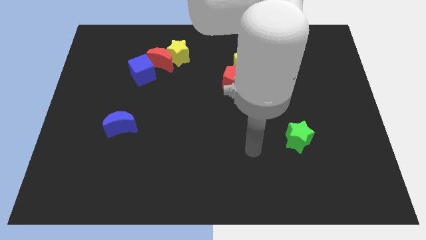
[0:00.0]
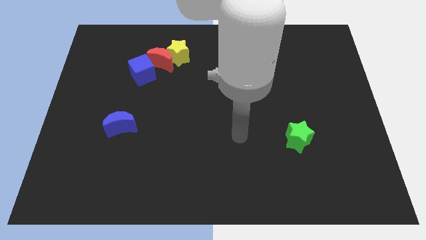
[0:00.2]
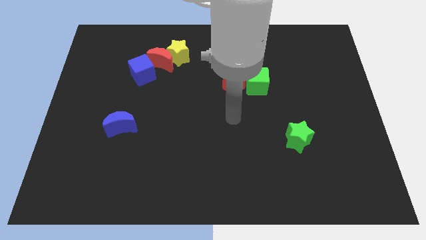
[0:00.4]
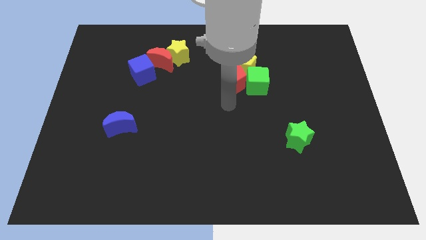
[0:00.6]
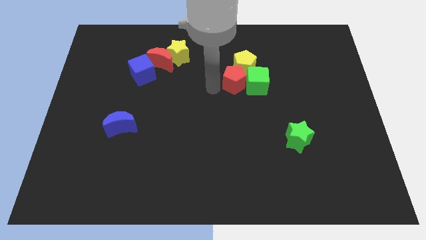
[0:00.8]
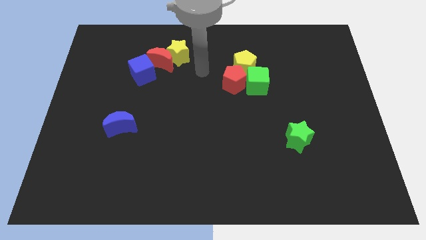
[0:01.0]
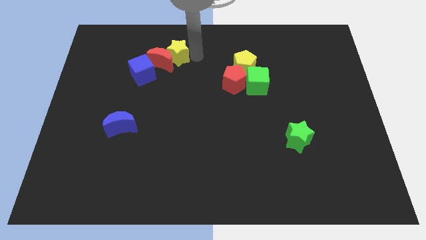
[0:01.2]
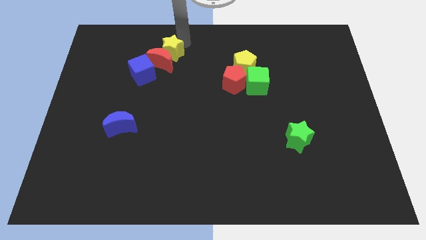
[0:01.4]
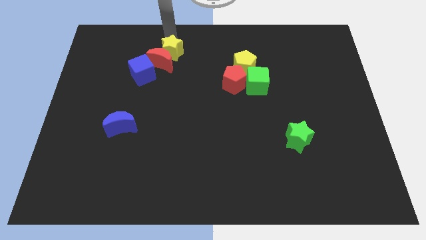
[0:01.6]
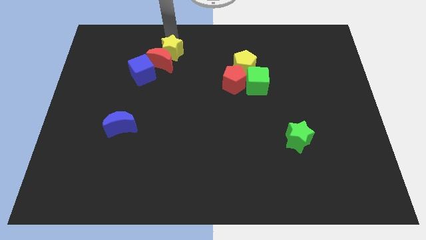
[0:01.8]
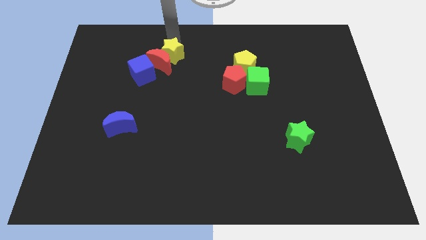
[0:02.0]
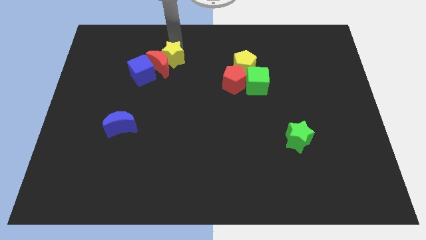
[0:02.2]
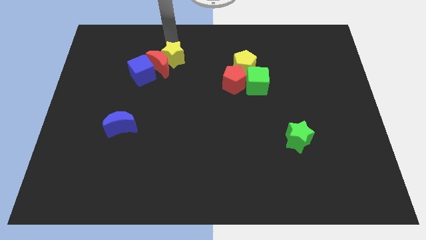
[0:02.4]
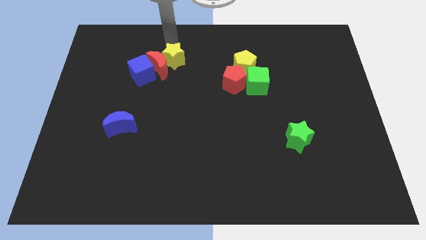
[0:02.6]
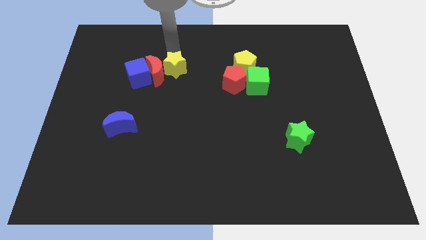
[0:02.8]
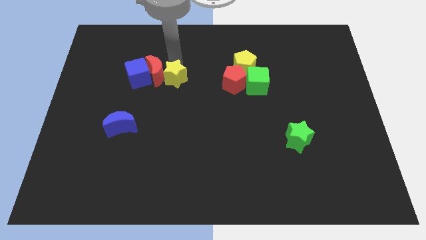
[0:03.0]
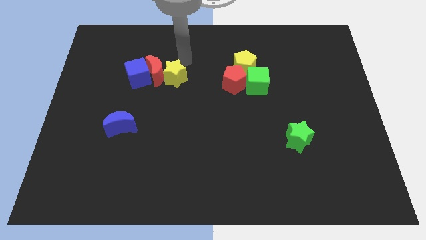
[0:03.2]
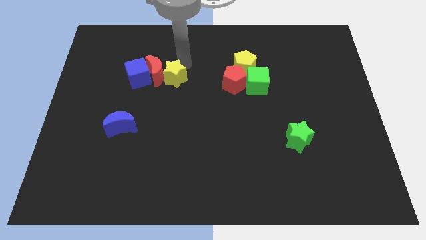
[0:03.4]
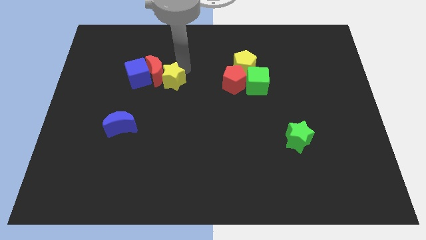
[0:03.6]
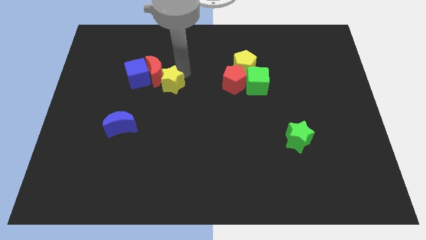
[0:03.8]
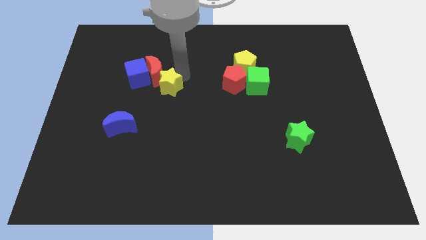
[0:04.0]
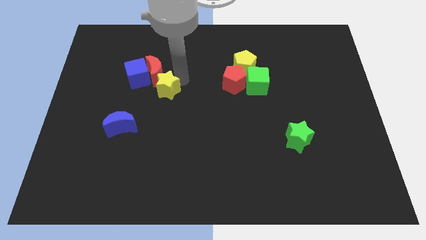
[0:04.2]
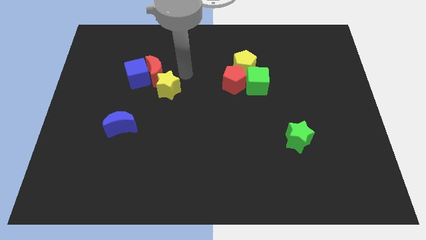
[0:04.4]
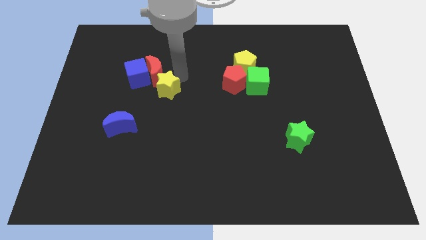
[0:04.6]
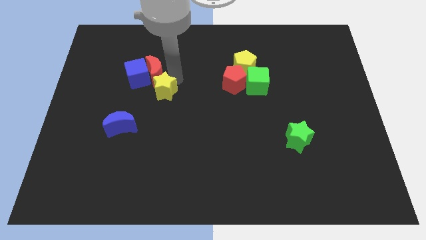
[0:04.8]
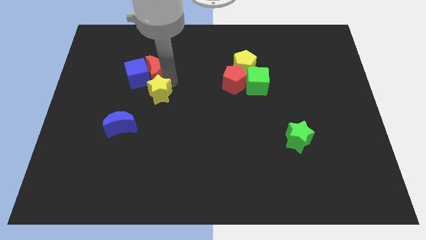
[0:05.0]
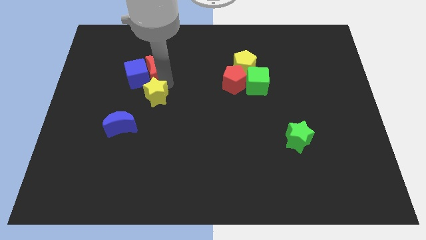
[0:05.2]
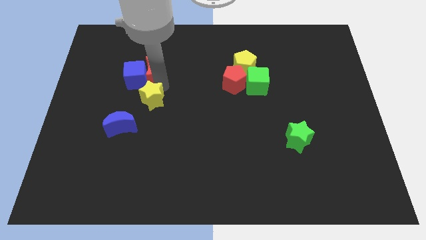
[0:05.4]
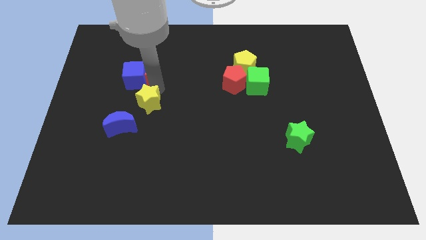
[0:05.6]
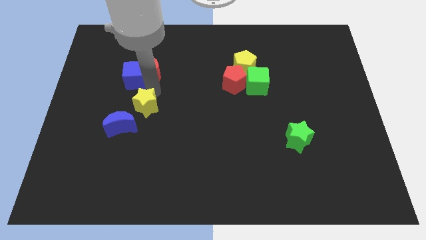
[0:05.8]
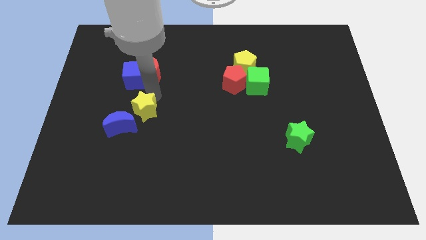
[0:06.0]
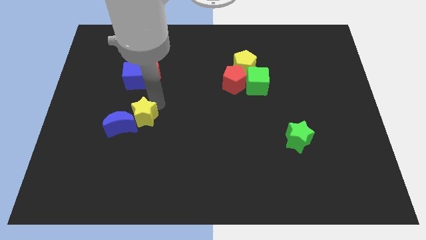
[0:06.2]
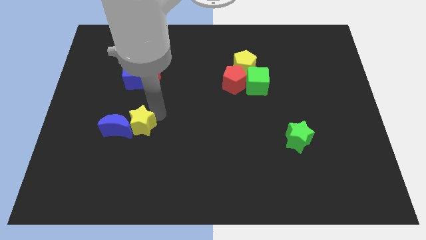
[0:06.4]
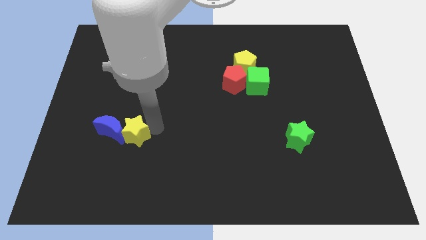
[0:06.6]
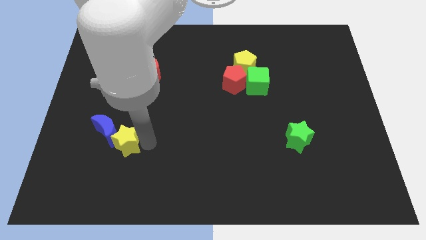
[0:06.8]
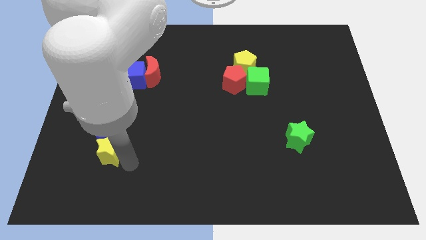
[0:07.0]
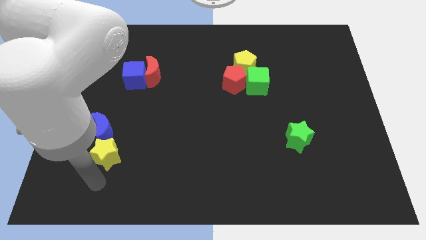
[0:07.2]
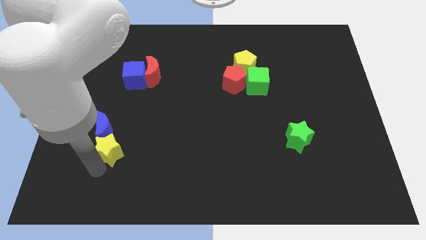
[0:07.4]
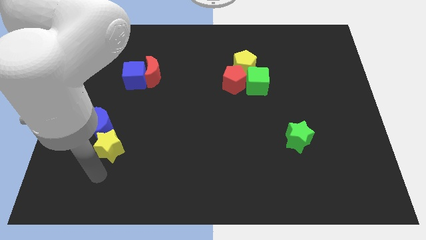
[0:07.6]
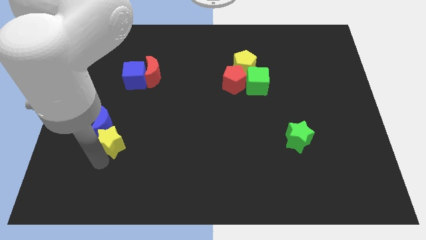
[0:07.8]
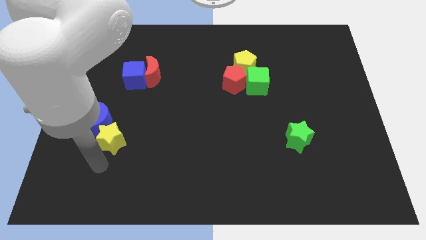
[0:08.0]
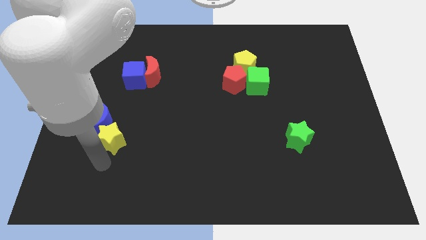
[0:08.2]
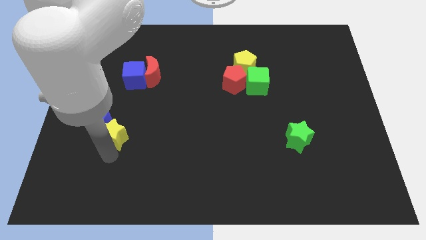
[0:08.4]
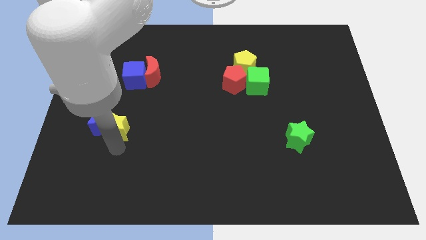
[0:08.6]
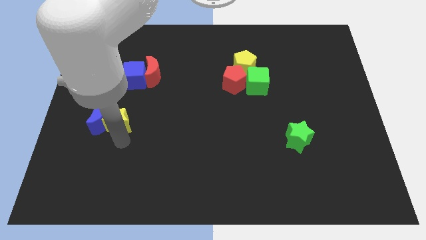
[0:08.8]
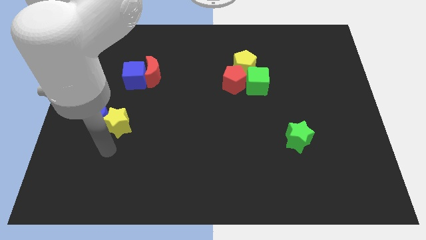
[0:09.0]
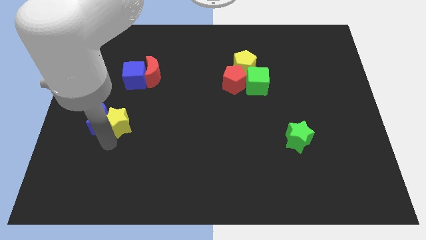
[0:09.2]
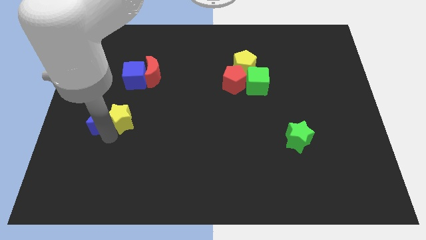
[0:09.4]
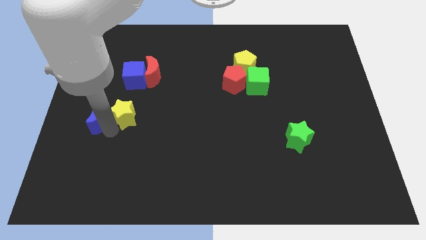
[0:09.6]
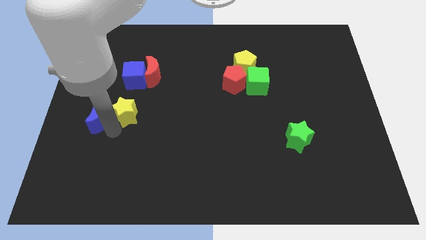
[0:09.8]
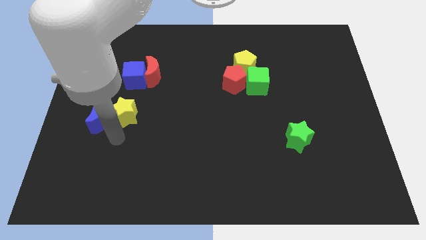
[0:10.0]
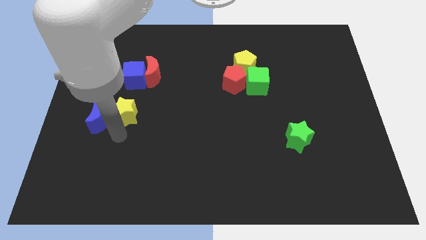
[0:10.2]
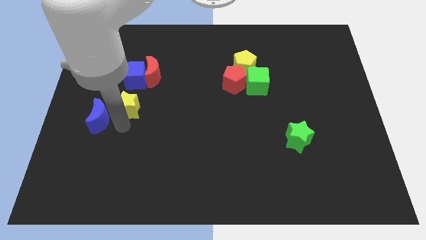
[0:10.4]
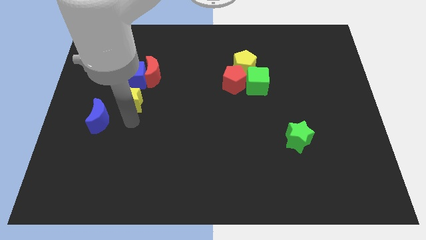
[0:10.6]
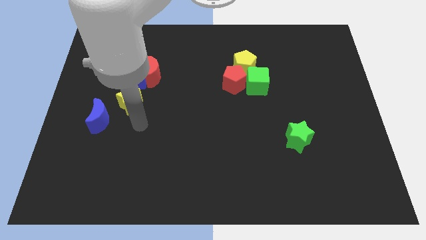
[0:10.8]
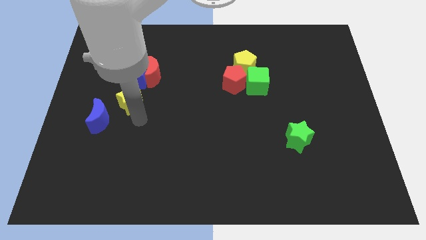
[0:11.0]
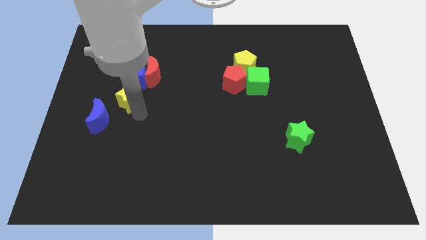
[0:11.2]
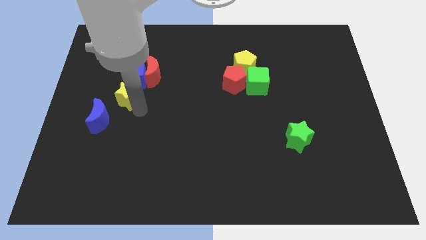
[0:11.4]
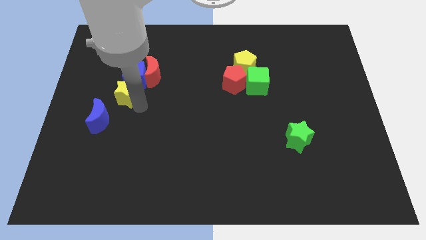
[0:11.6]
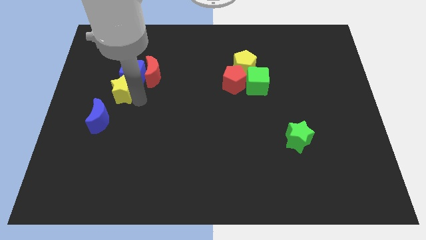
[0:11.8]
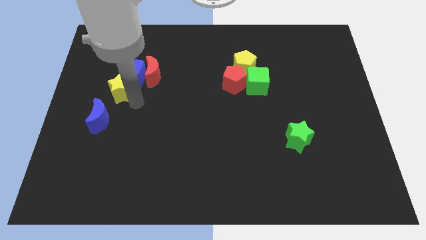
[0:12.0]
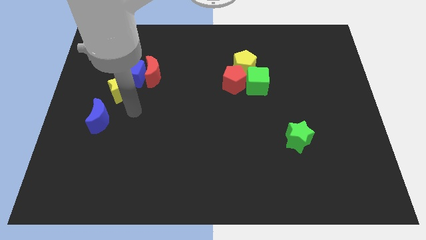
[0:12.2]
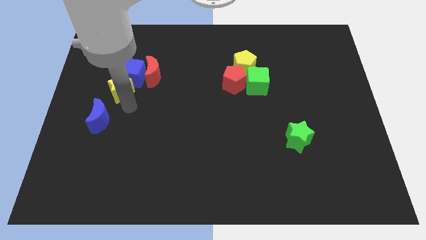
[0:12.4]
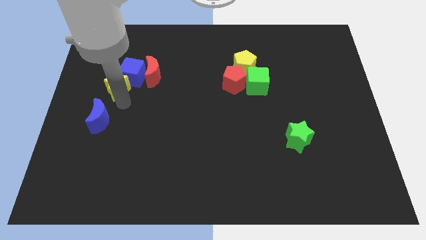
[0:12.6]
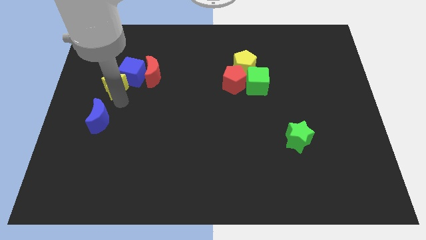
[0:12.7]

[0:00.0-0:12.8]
slide the yellow star slightly to the left

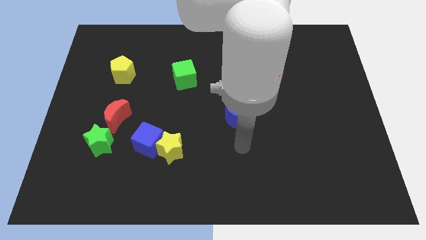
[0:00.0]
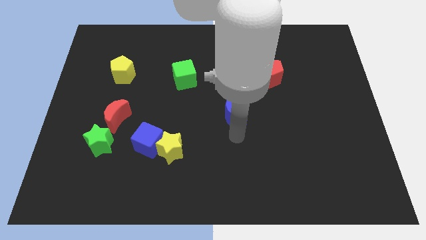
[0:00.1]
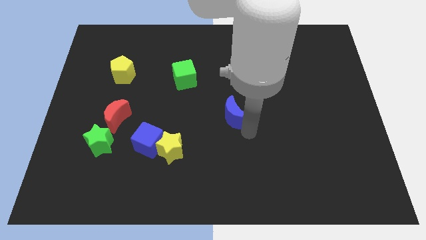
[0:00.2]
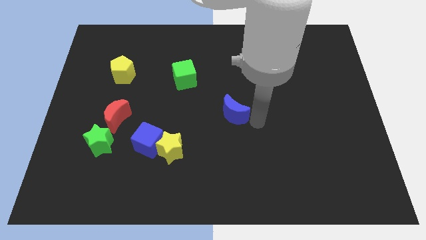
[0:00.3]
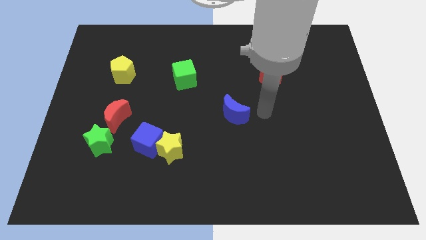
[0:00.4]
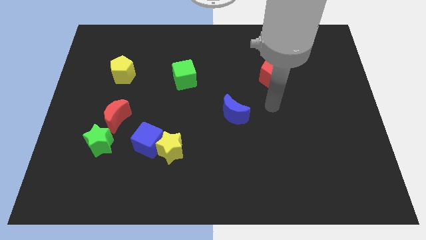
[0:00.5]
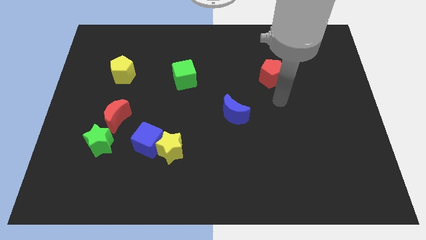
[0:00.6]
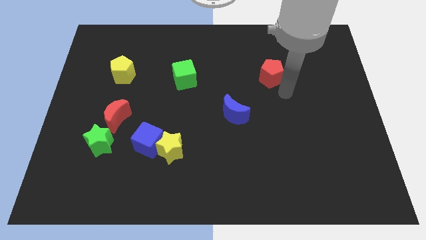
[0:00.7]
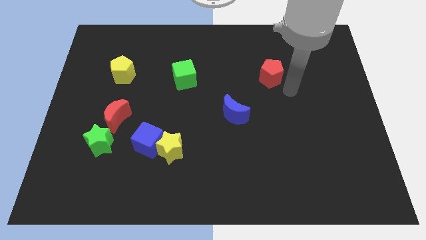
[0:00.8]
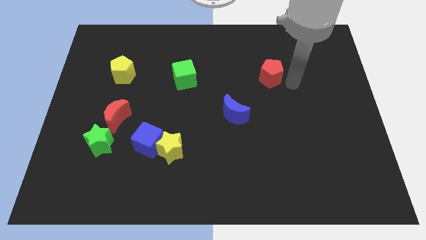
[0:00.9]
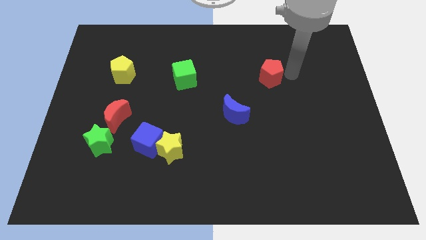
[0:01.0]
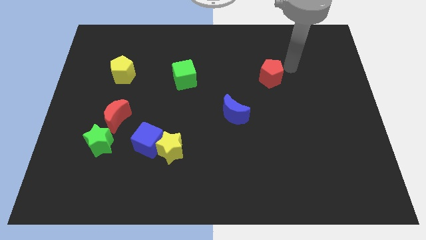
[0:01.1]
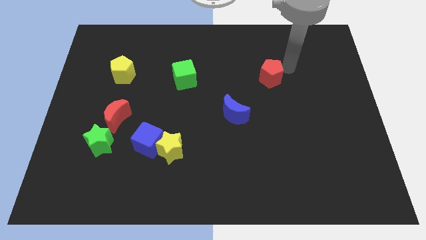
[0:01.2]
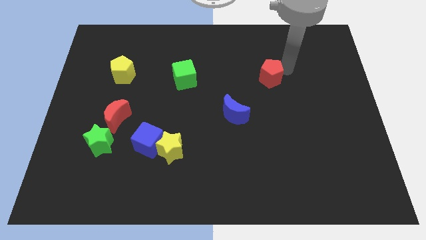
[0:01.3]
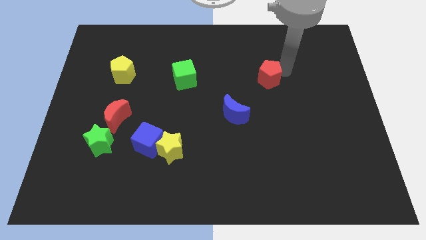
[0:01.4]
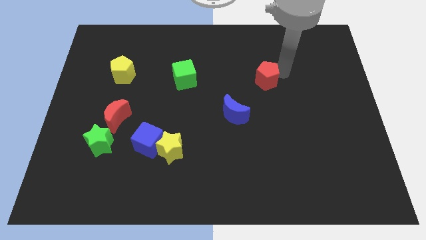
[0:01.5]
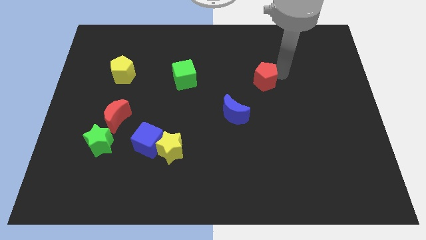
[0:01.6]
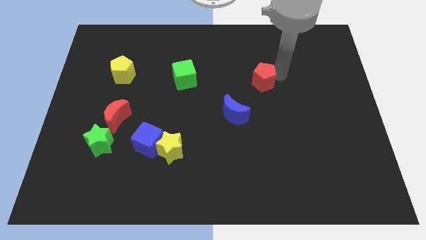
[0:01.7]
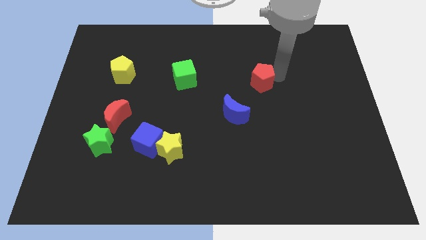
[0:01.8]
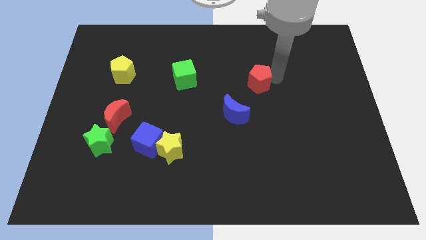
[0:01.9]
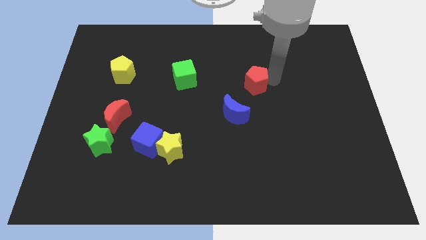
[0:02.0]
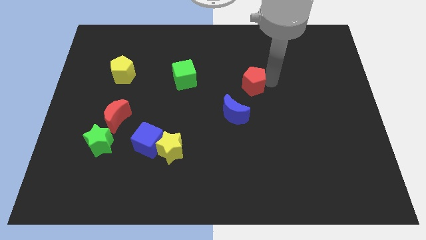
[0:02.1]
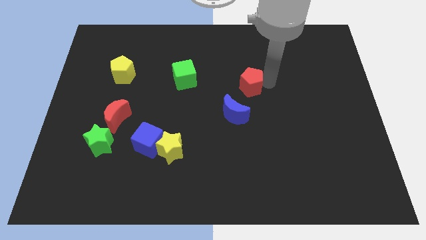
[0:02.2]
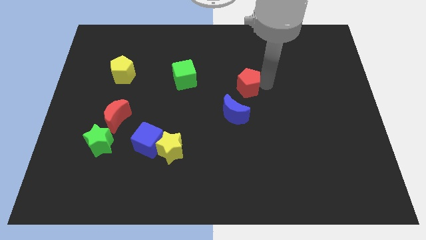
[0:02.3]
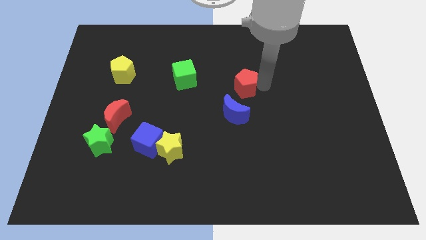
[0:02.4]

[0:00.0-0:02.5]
slide the red pentagon downwards and then left a little
